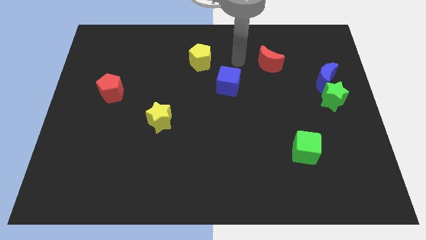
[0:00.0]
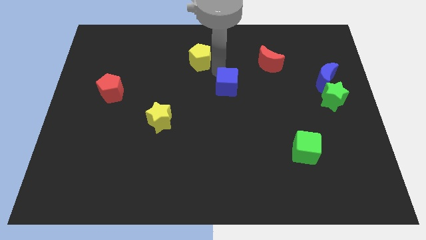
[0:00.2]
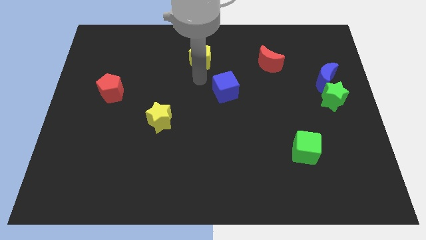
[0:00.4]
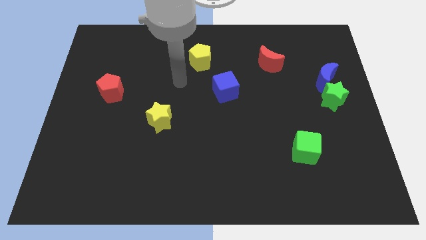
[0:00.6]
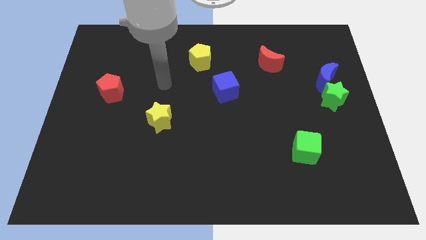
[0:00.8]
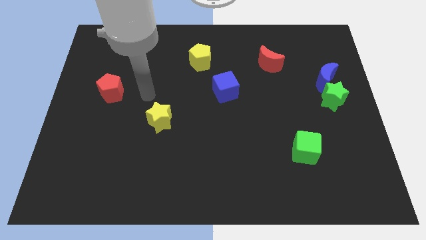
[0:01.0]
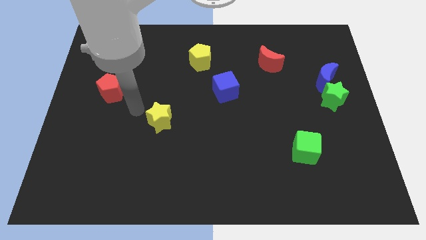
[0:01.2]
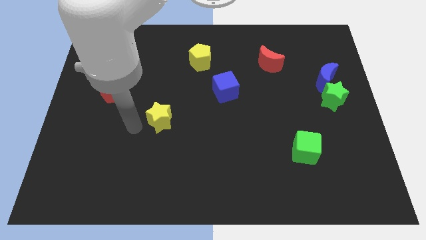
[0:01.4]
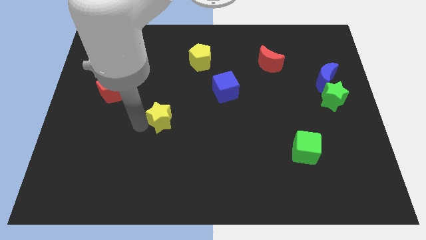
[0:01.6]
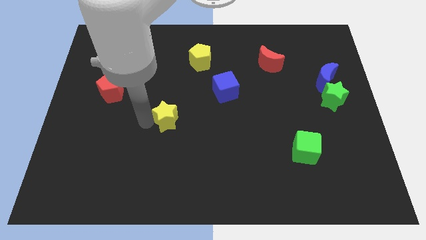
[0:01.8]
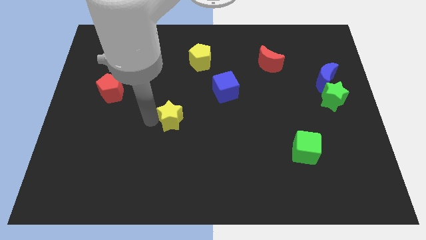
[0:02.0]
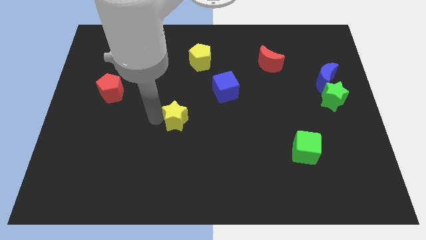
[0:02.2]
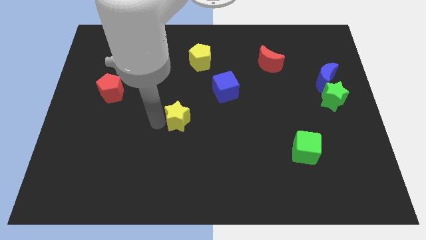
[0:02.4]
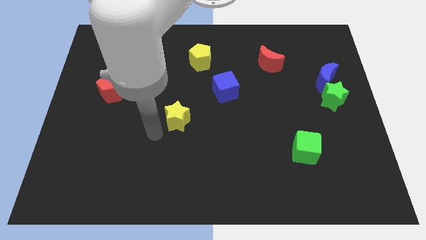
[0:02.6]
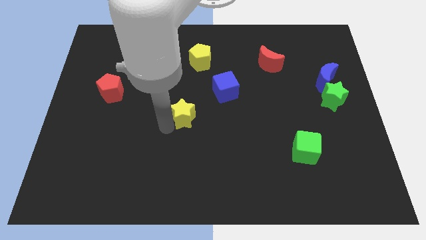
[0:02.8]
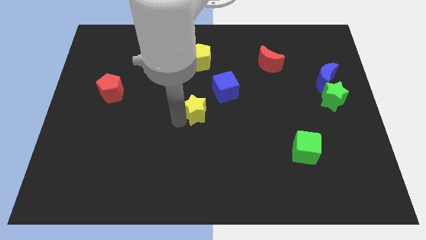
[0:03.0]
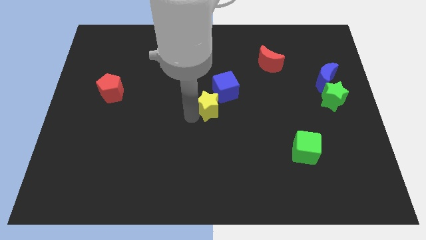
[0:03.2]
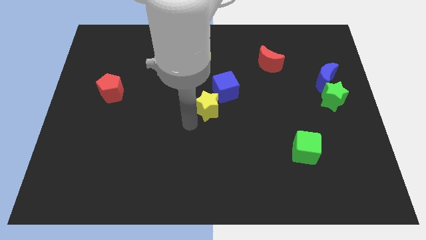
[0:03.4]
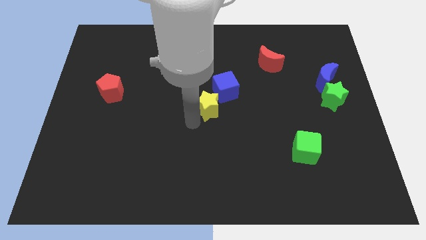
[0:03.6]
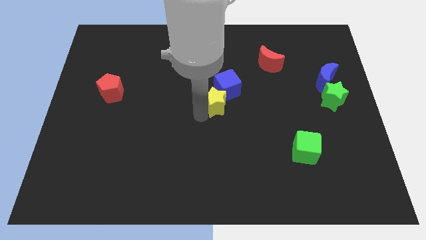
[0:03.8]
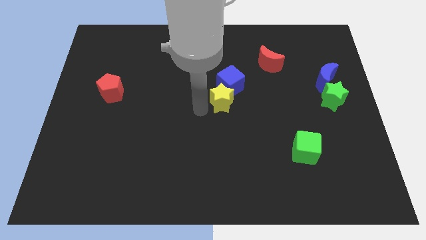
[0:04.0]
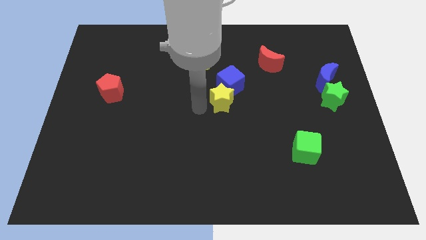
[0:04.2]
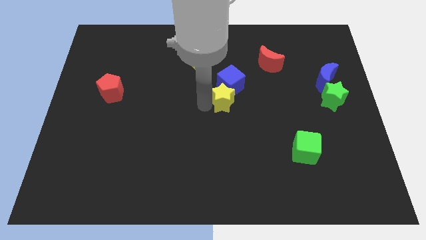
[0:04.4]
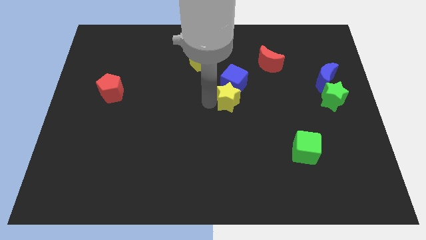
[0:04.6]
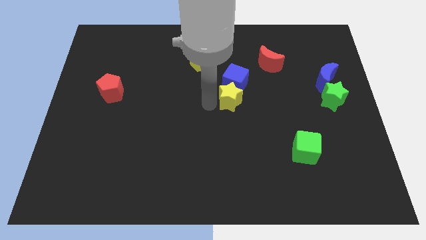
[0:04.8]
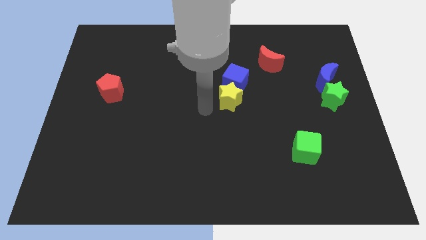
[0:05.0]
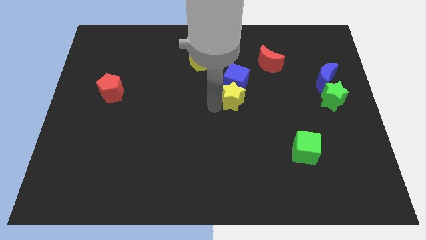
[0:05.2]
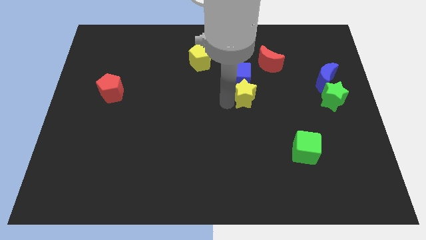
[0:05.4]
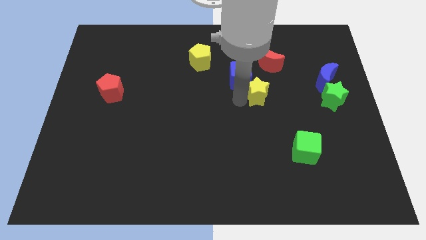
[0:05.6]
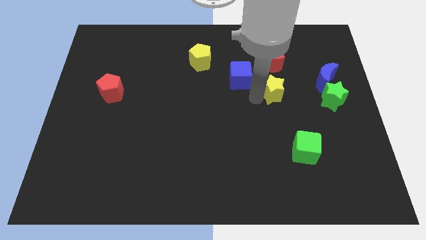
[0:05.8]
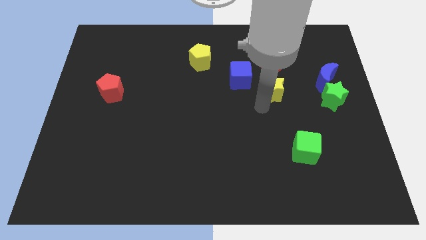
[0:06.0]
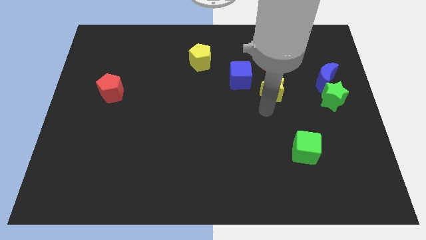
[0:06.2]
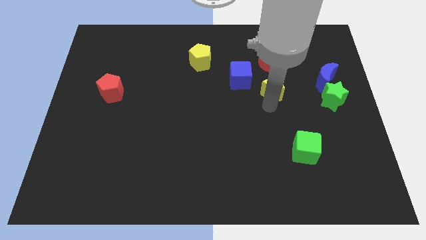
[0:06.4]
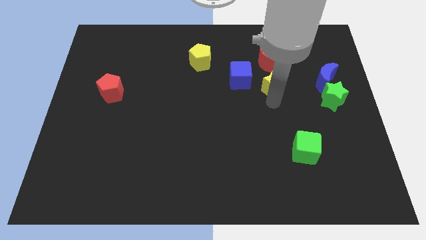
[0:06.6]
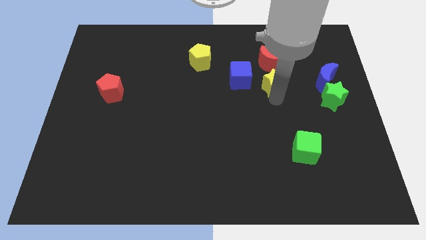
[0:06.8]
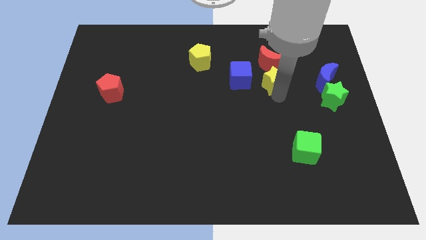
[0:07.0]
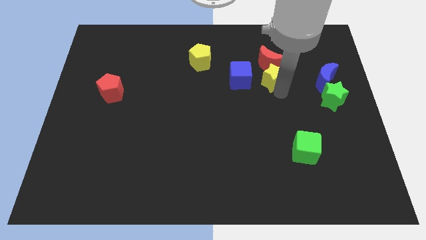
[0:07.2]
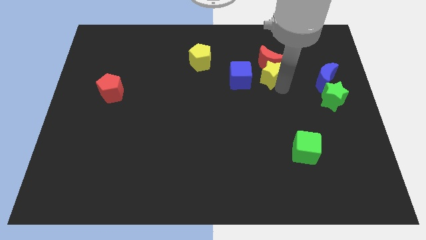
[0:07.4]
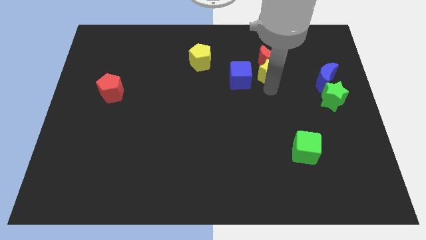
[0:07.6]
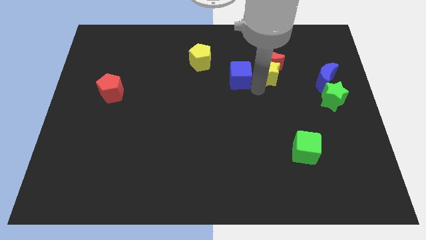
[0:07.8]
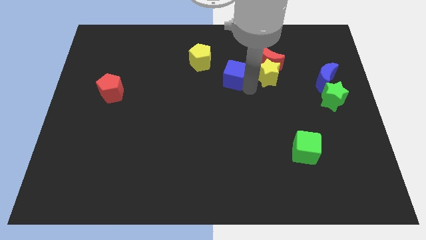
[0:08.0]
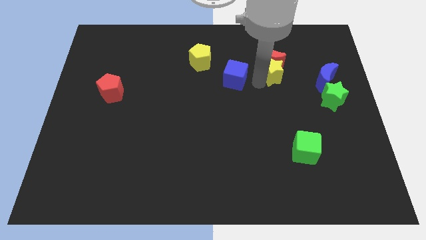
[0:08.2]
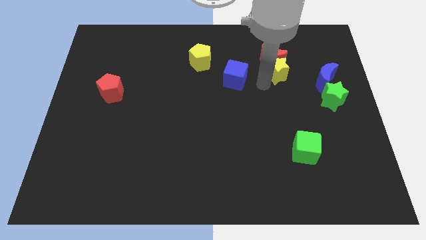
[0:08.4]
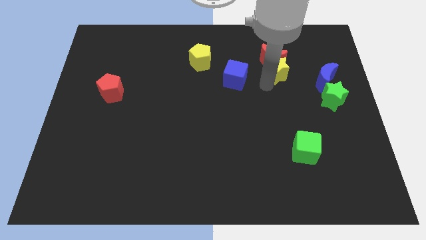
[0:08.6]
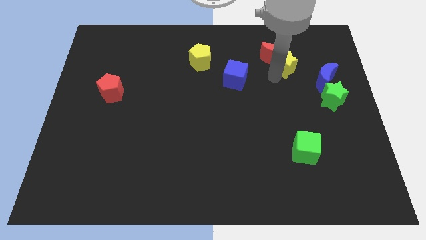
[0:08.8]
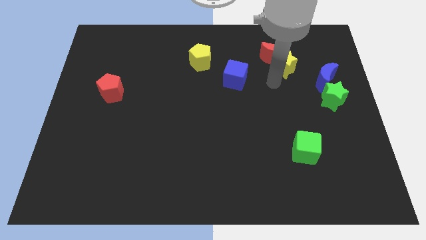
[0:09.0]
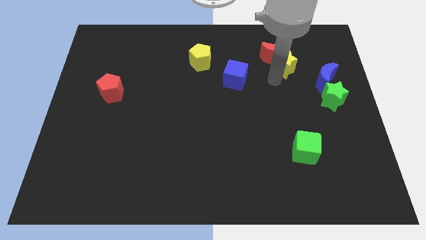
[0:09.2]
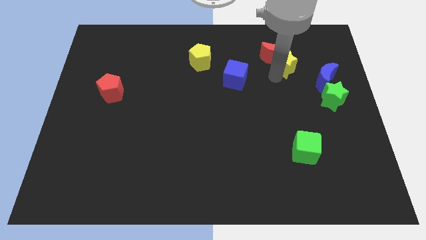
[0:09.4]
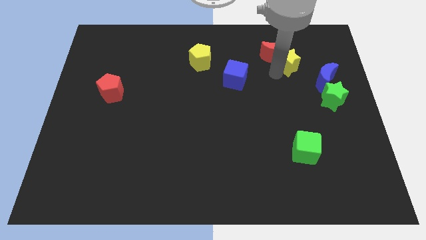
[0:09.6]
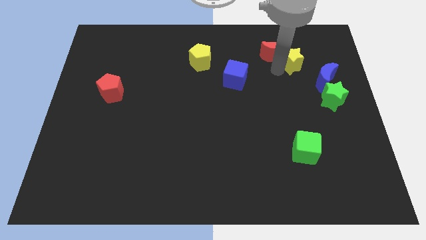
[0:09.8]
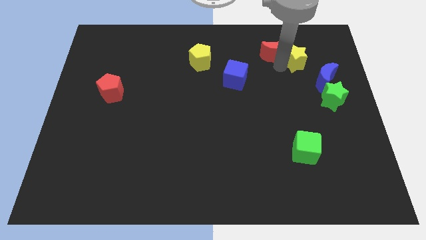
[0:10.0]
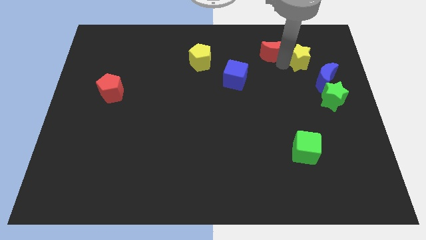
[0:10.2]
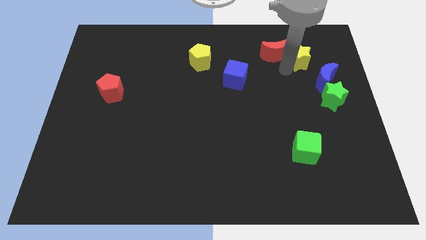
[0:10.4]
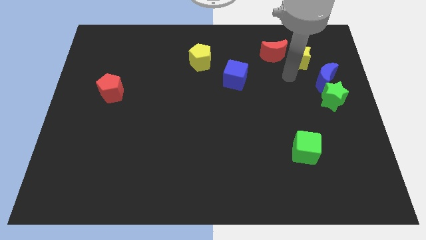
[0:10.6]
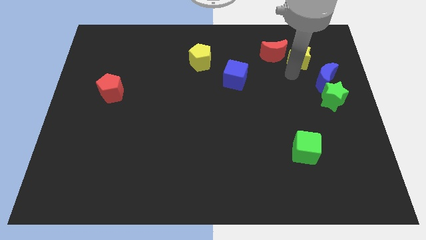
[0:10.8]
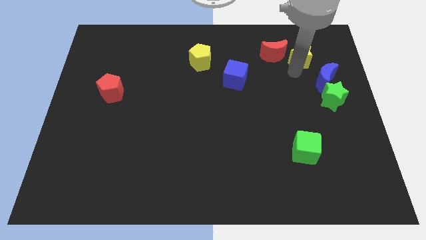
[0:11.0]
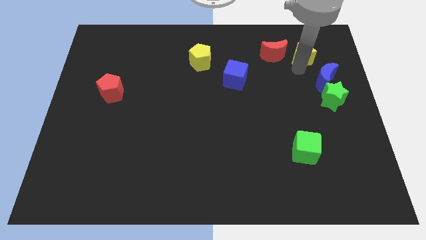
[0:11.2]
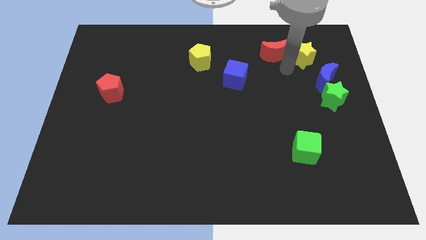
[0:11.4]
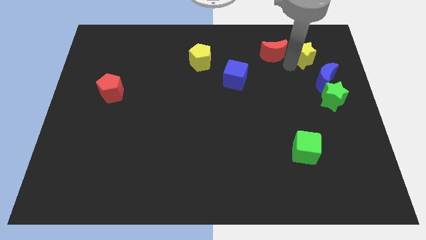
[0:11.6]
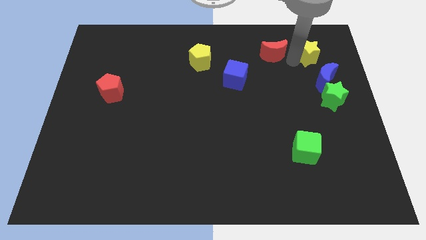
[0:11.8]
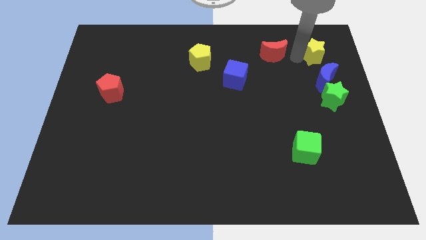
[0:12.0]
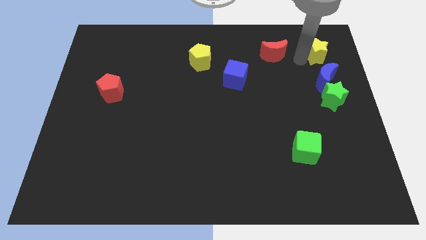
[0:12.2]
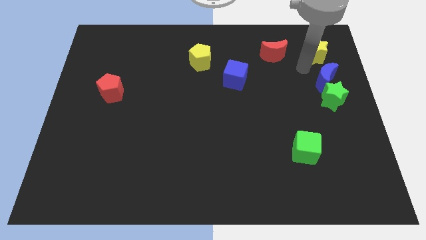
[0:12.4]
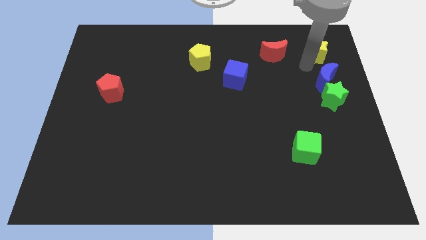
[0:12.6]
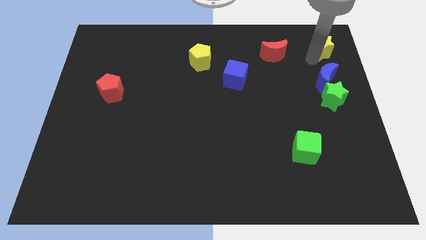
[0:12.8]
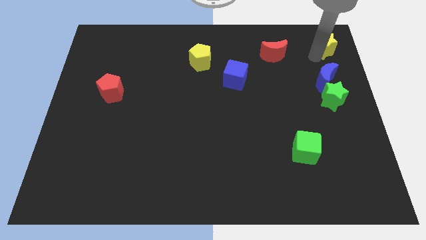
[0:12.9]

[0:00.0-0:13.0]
put the yellow star to the top right of the board

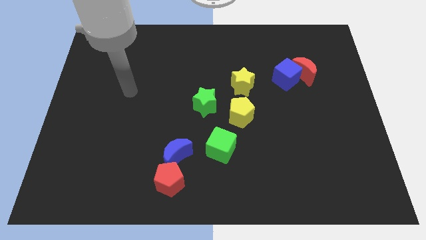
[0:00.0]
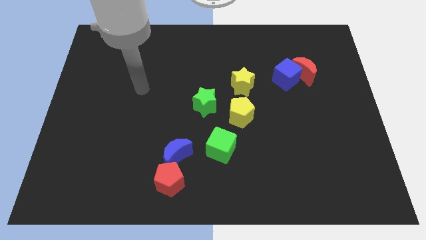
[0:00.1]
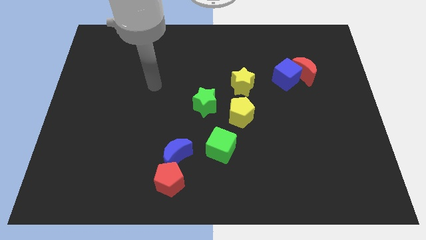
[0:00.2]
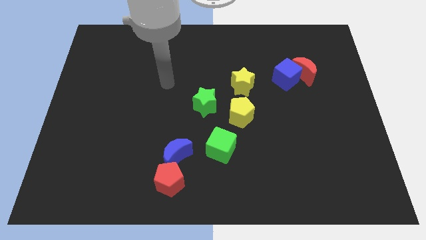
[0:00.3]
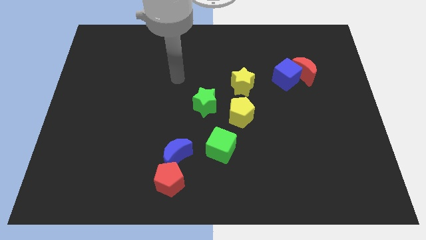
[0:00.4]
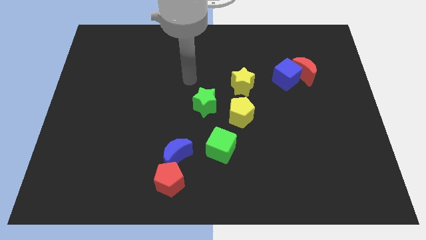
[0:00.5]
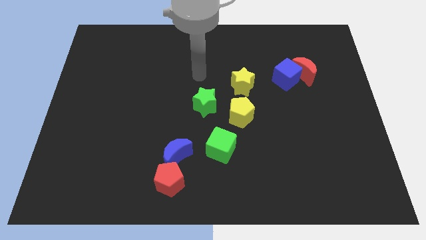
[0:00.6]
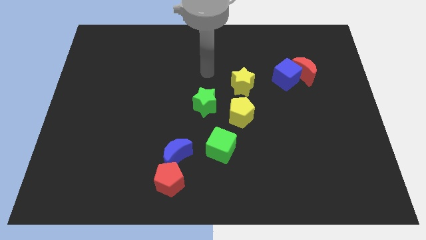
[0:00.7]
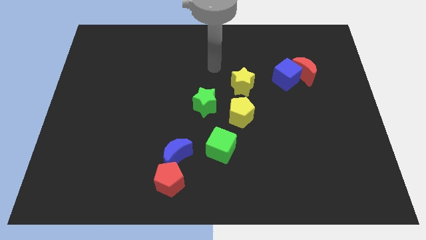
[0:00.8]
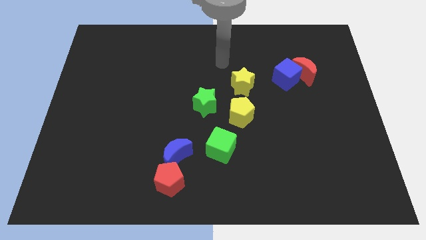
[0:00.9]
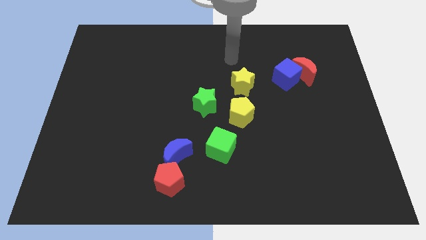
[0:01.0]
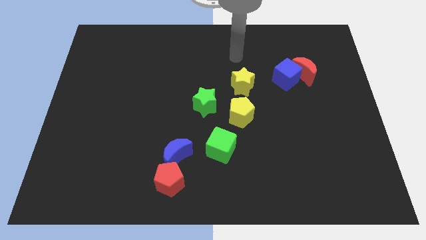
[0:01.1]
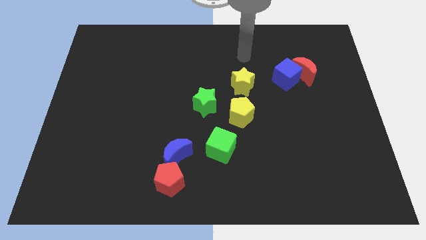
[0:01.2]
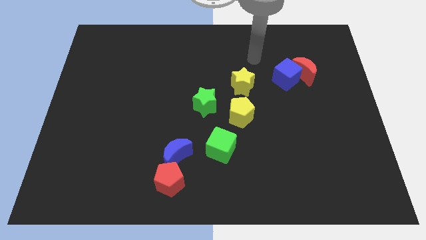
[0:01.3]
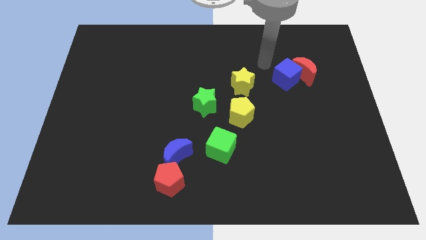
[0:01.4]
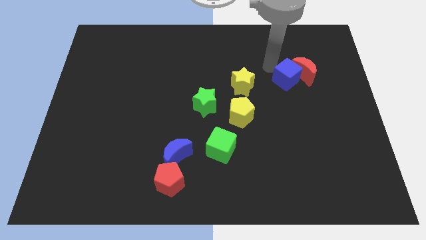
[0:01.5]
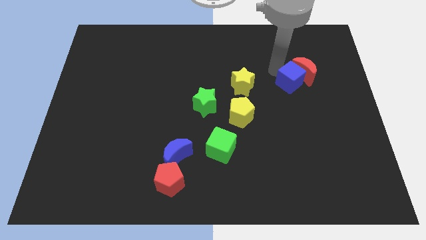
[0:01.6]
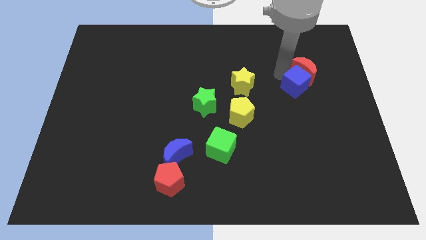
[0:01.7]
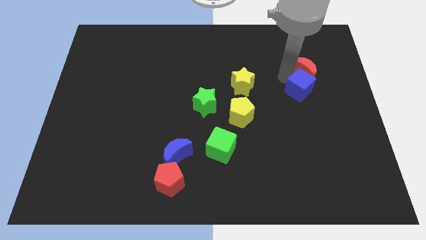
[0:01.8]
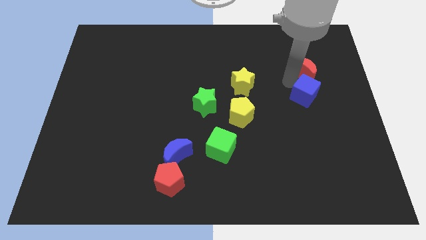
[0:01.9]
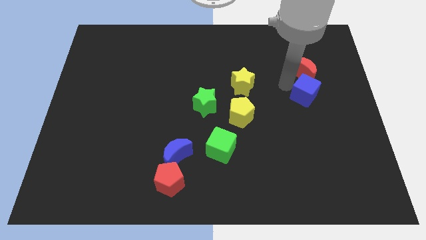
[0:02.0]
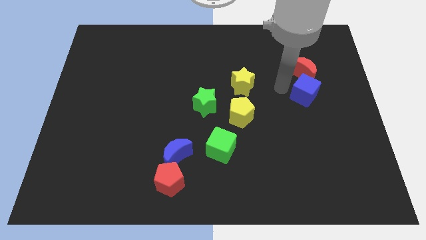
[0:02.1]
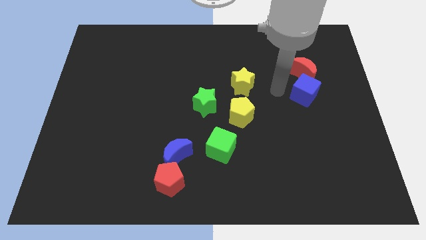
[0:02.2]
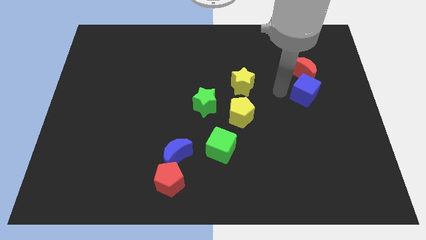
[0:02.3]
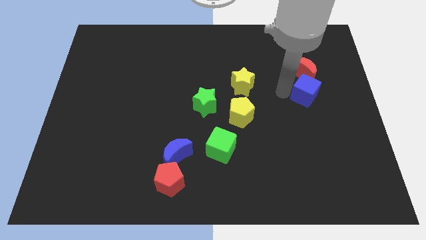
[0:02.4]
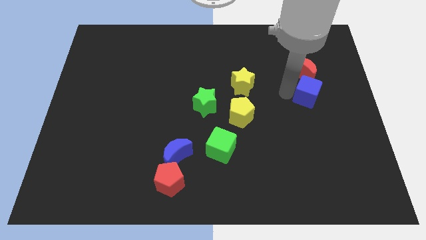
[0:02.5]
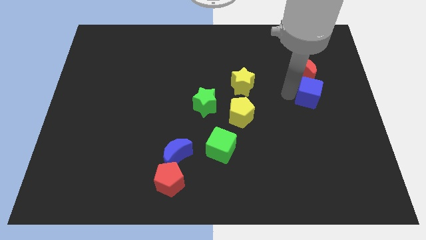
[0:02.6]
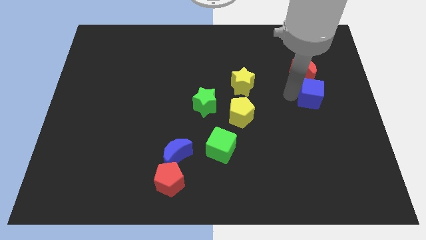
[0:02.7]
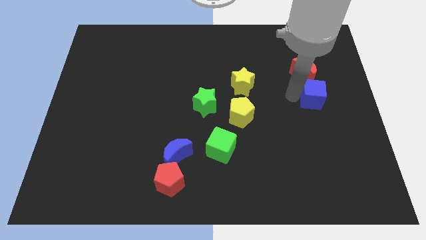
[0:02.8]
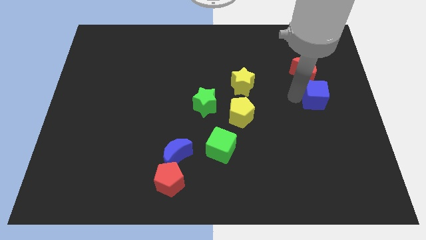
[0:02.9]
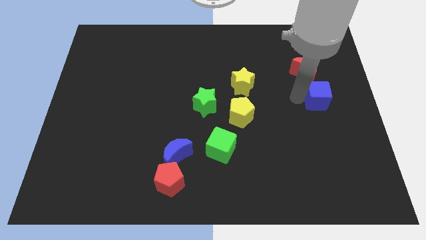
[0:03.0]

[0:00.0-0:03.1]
push the blue cube to the center right
